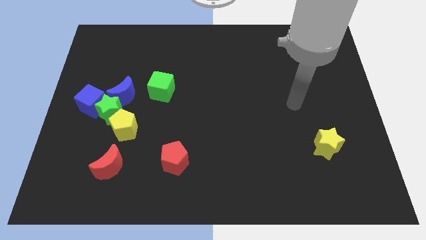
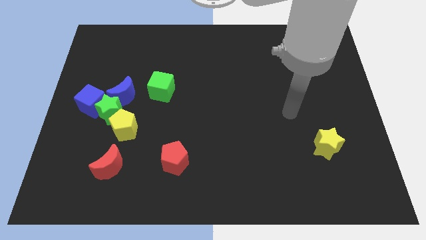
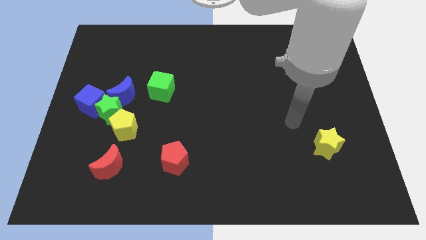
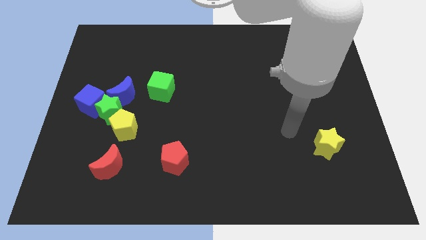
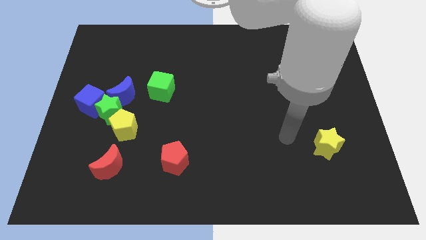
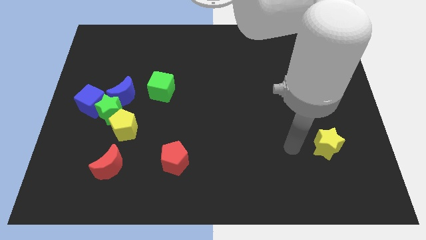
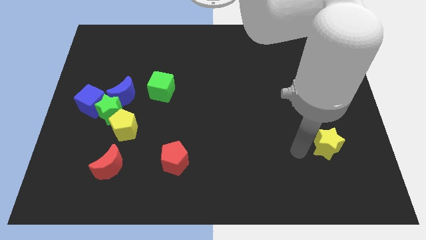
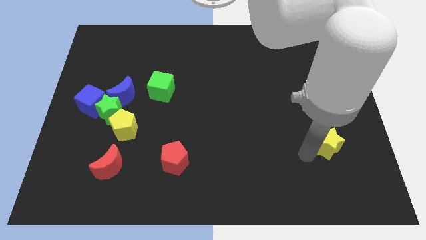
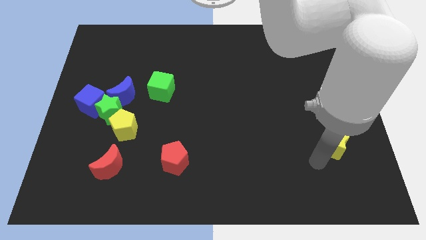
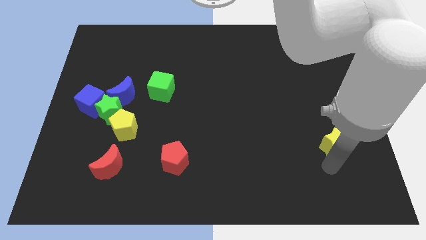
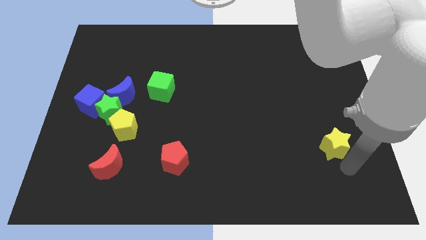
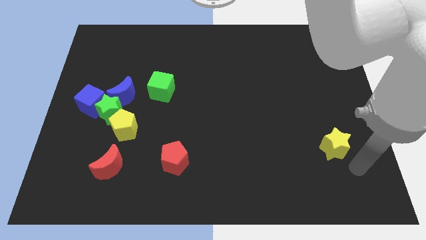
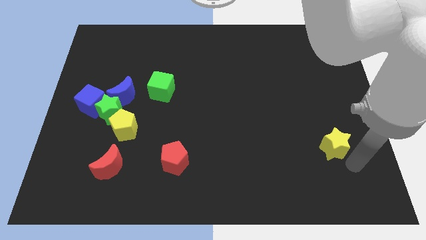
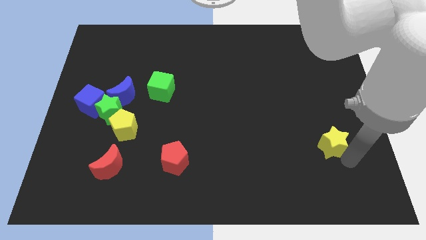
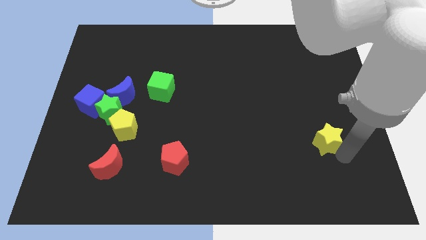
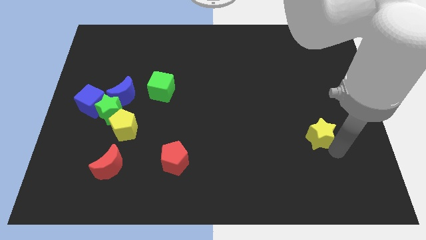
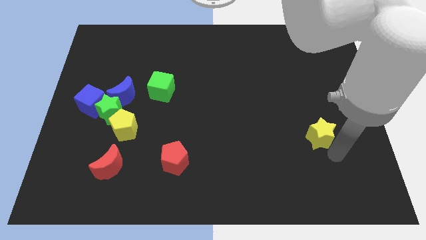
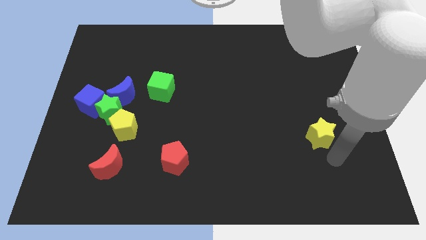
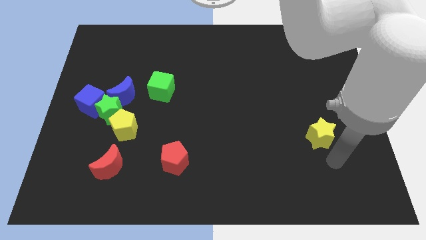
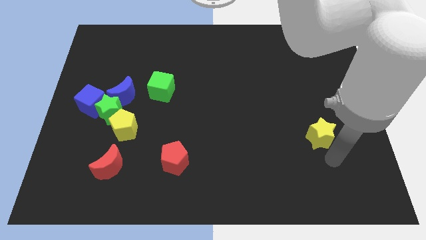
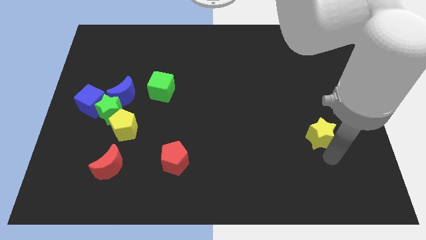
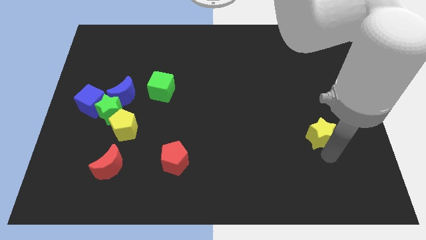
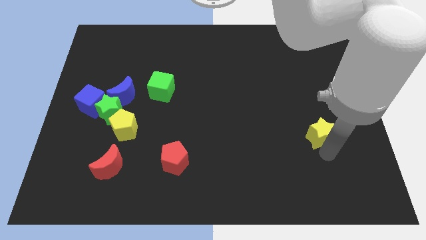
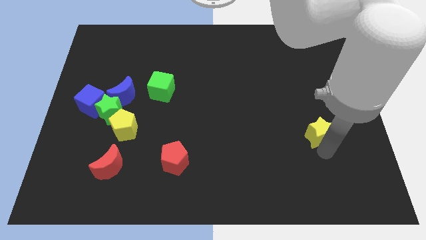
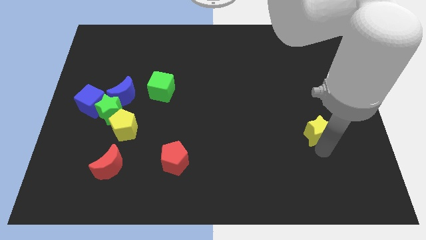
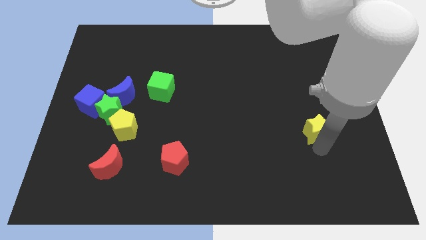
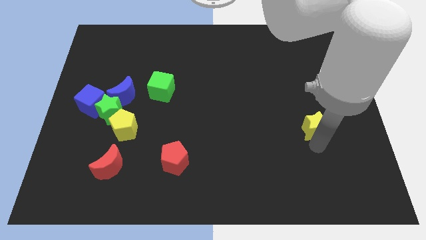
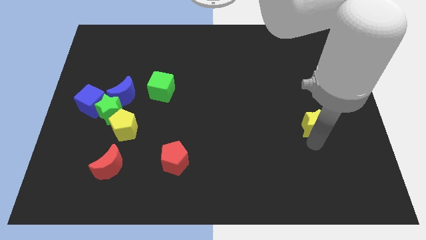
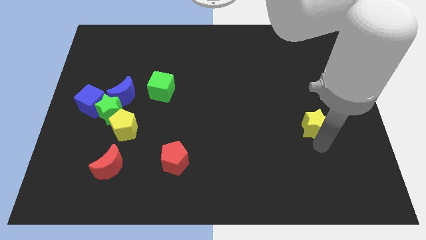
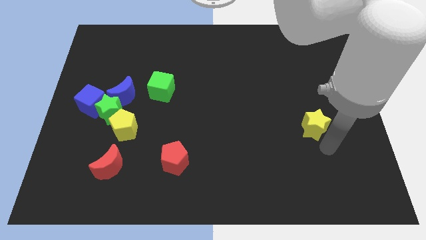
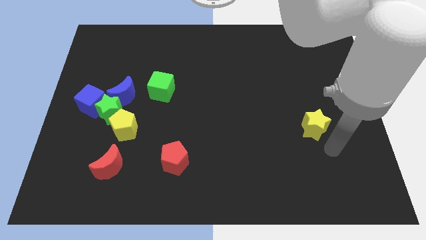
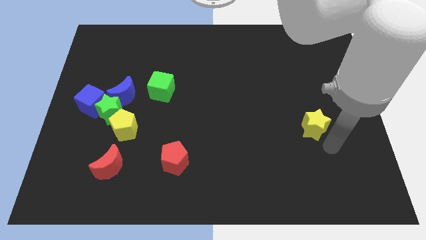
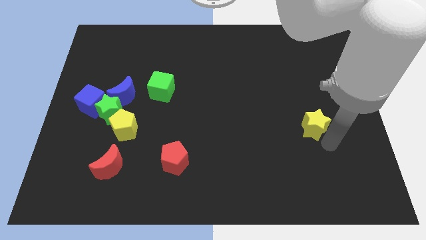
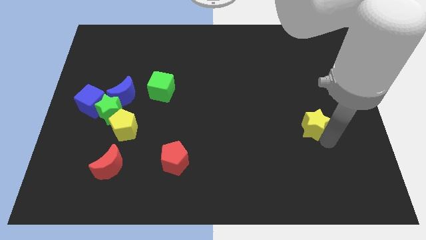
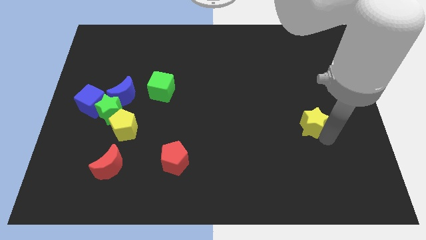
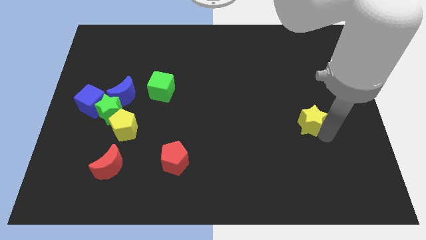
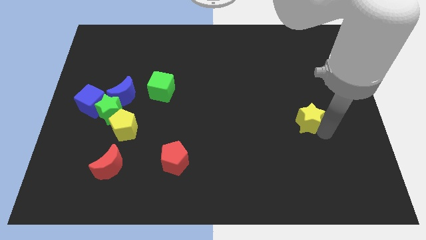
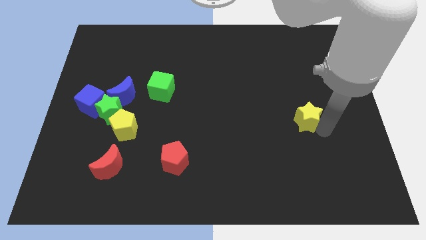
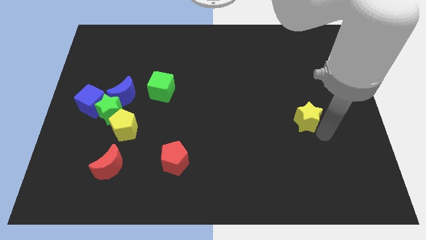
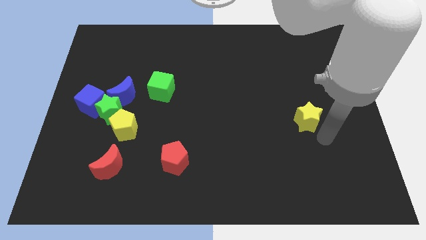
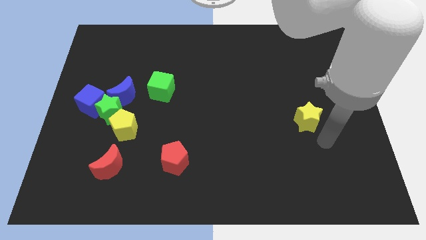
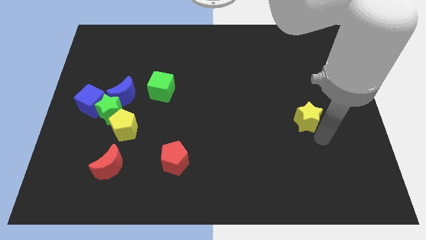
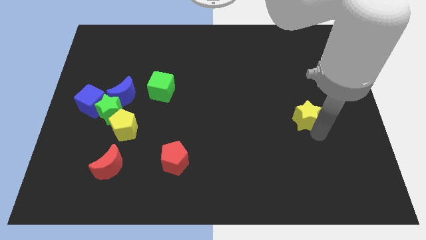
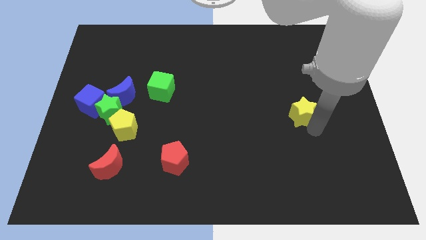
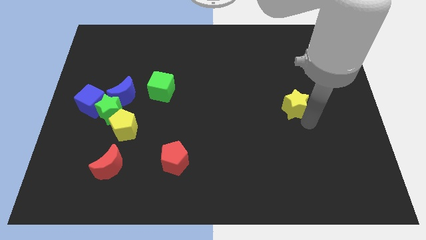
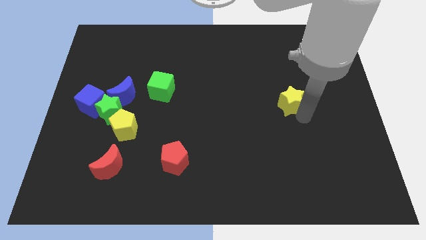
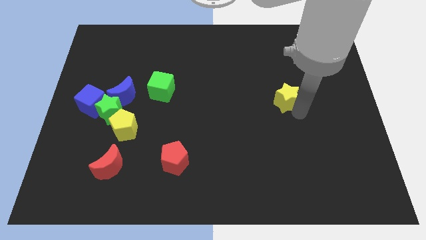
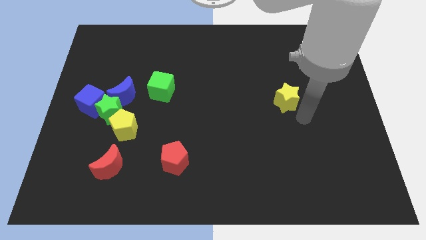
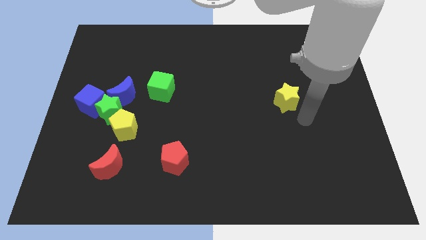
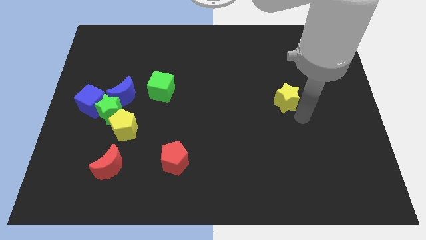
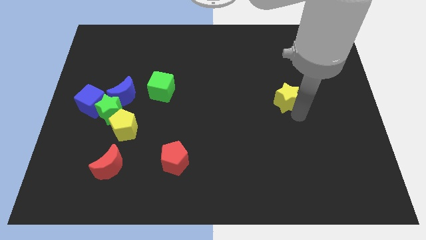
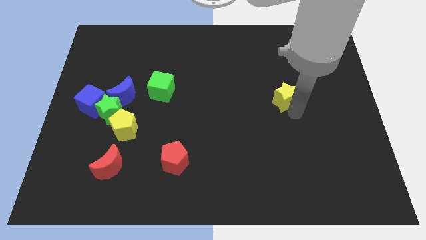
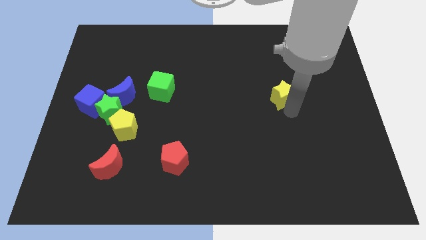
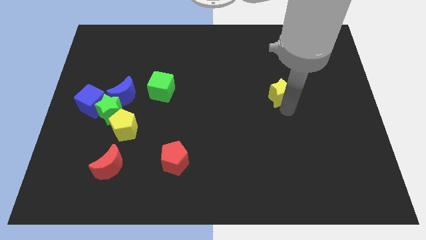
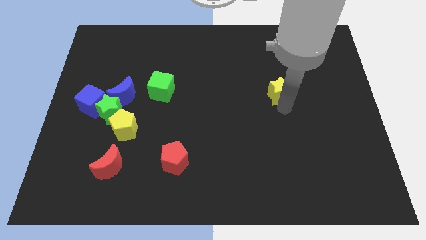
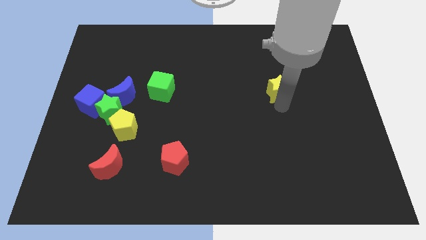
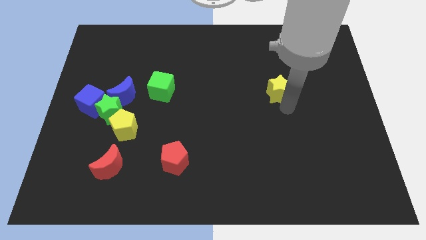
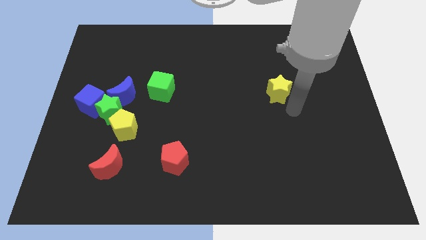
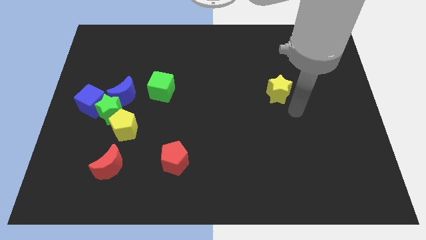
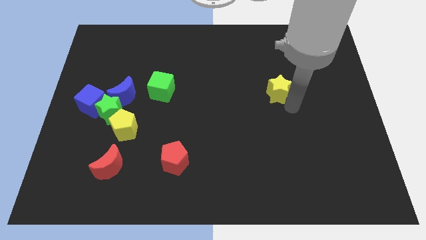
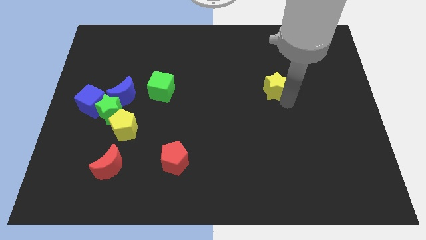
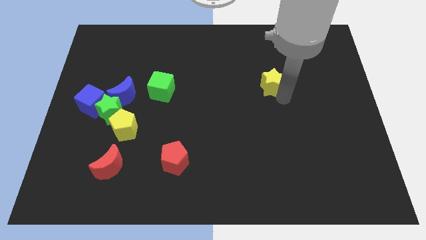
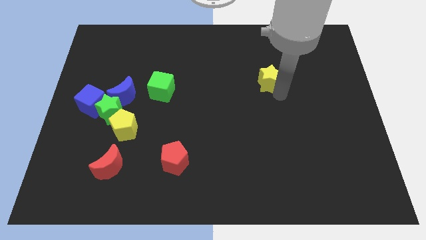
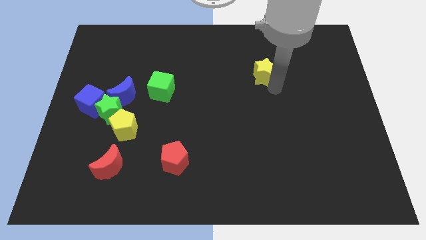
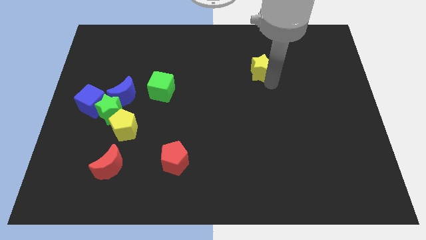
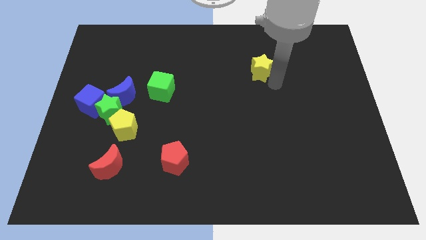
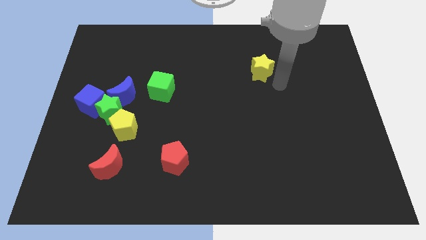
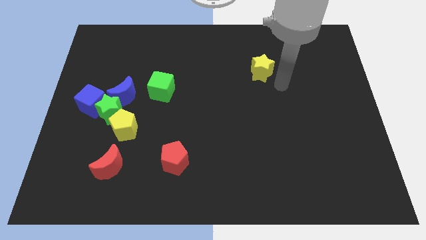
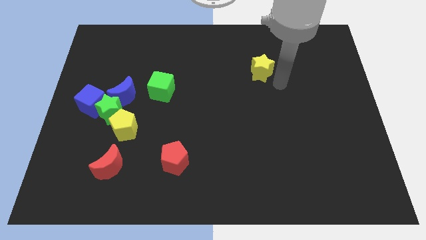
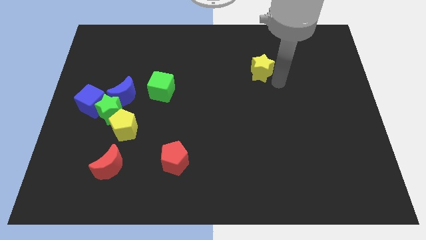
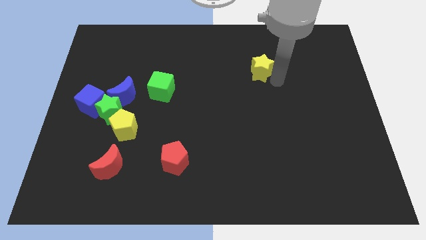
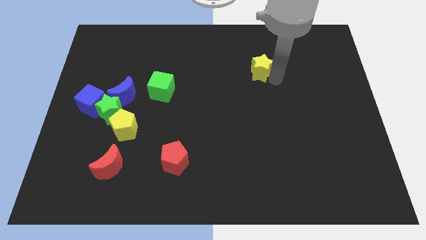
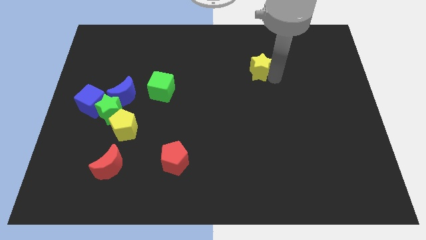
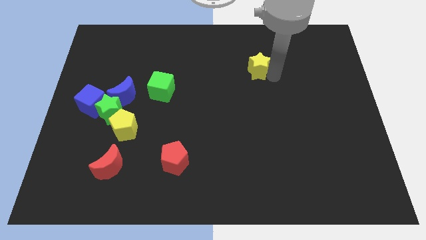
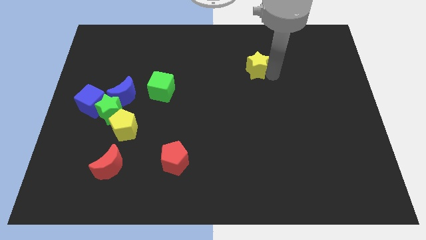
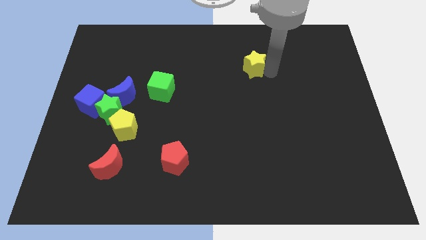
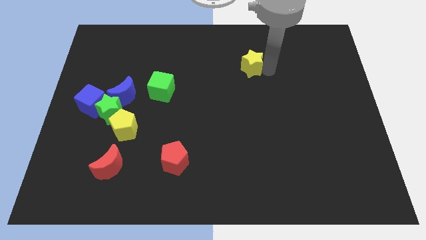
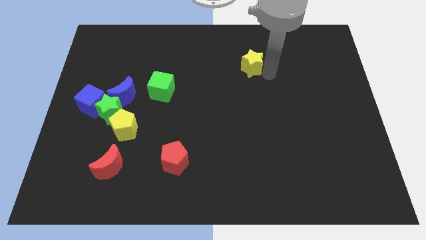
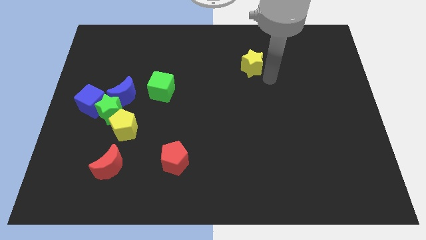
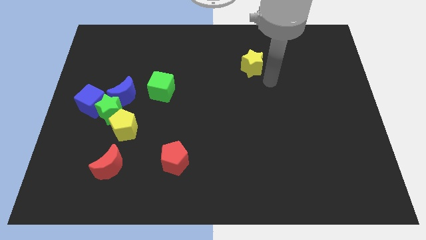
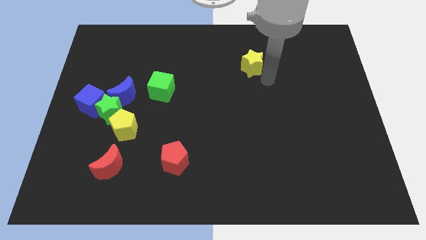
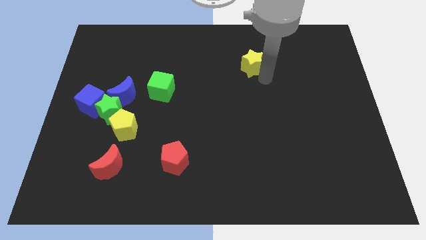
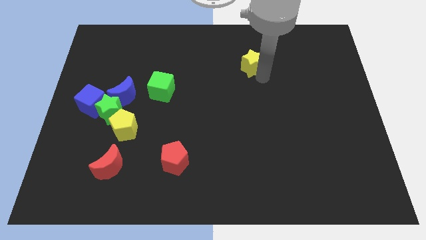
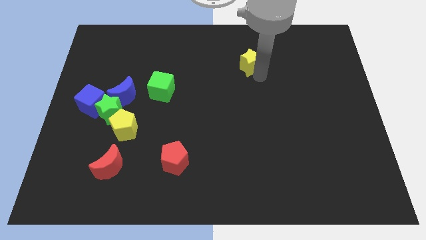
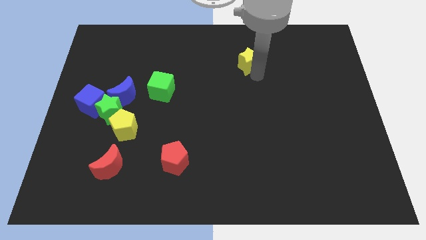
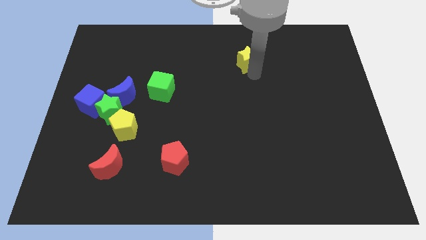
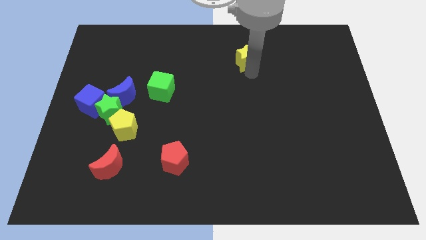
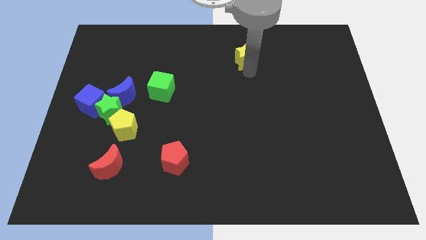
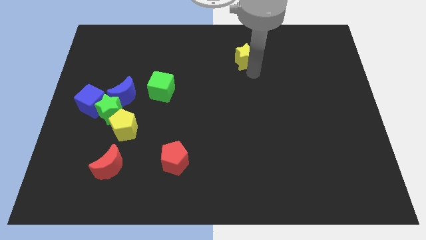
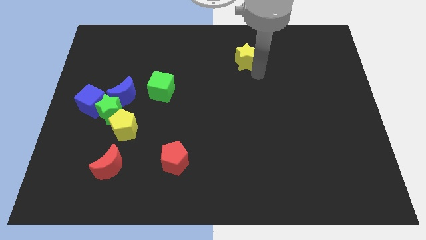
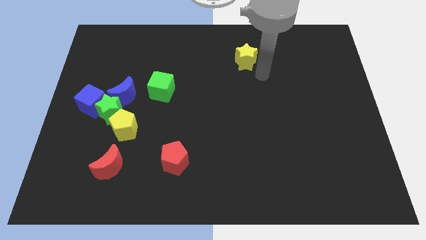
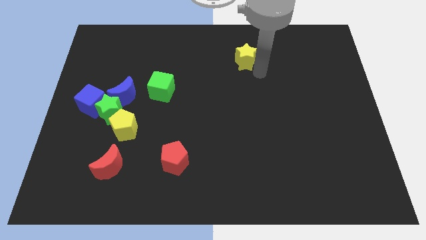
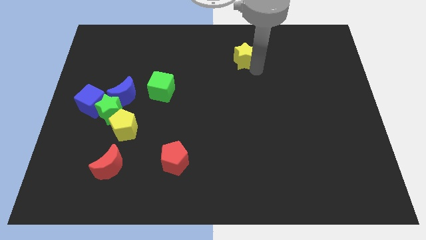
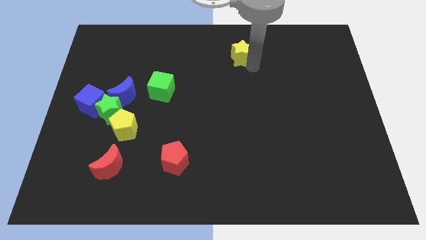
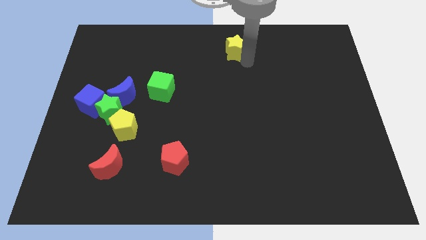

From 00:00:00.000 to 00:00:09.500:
push the yellow star to the top side
